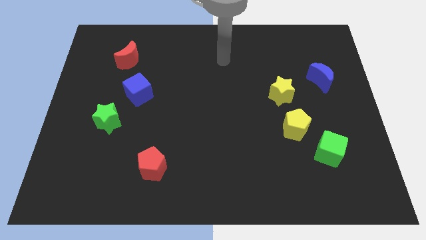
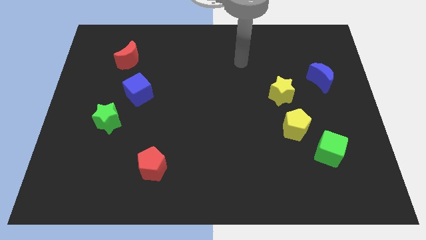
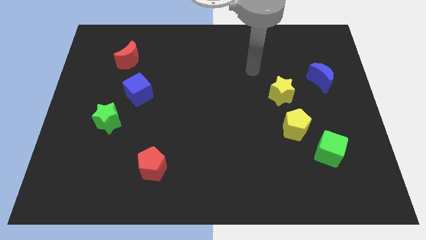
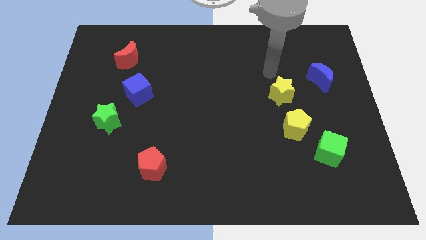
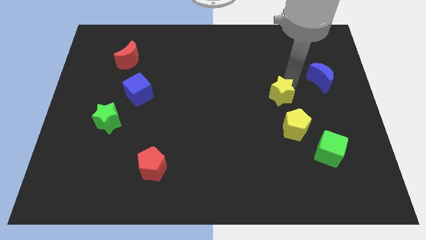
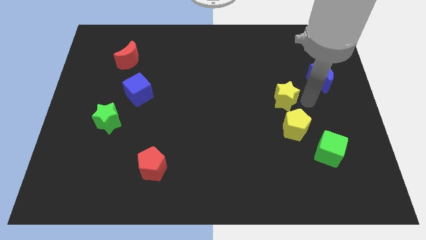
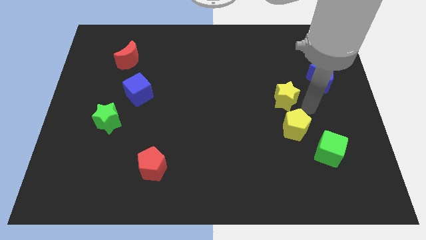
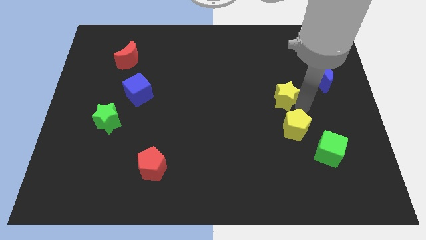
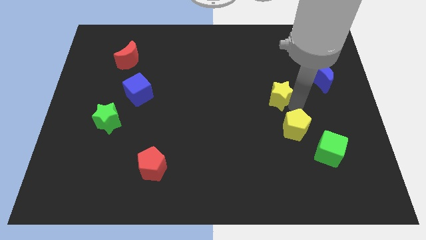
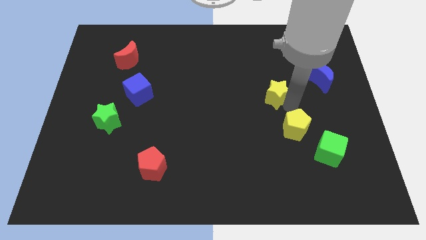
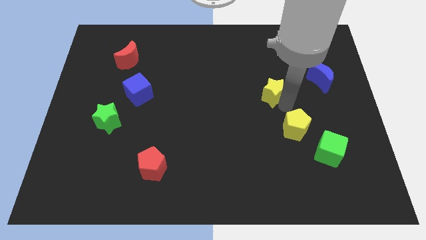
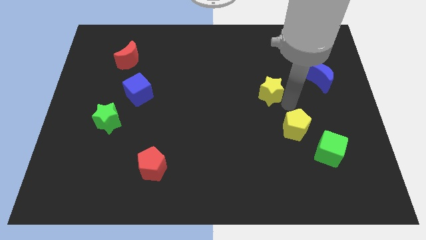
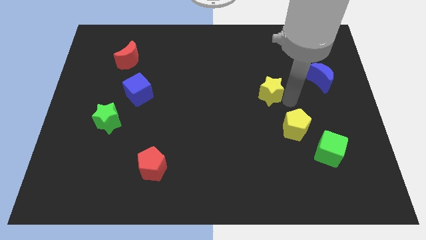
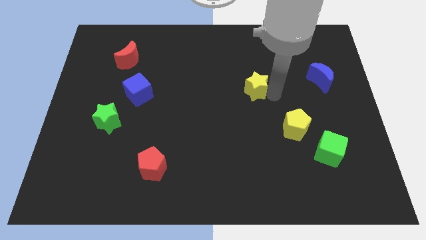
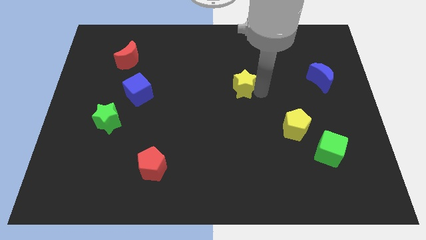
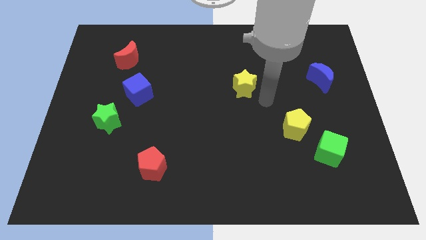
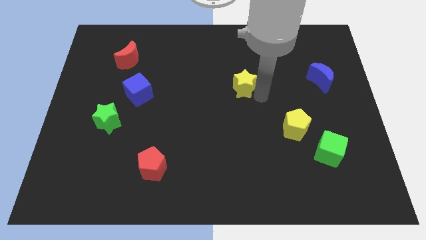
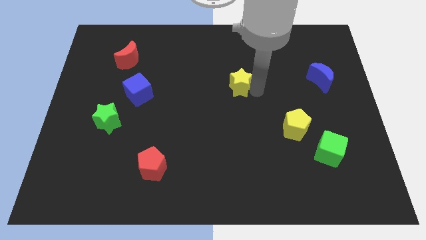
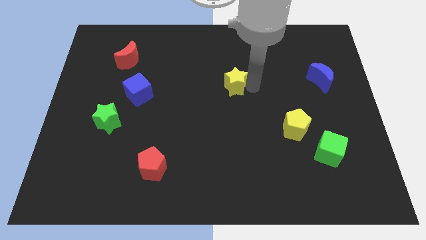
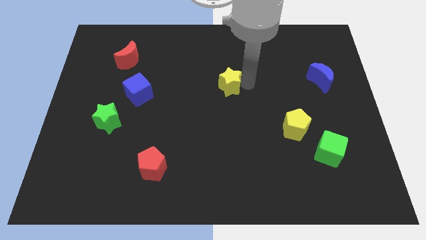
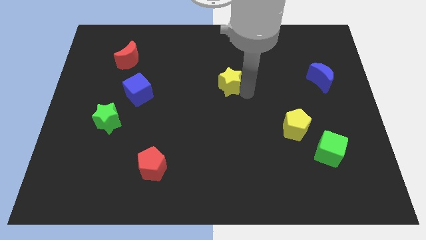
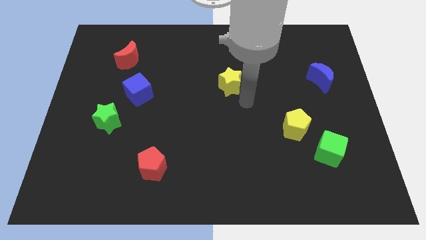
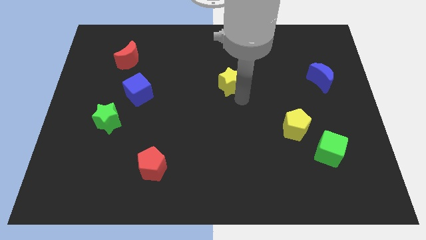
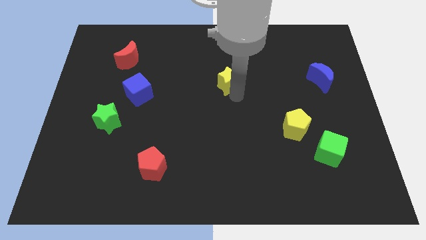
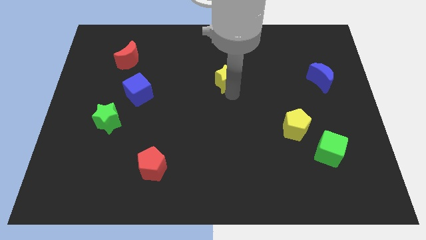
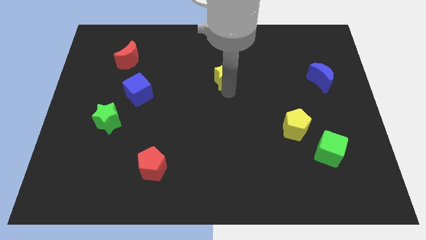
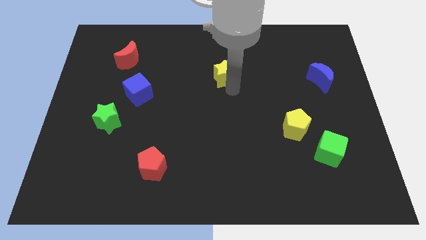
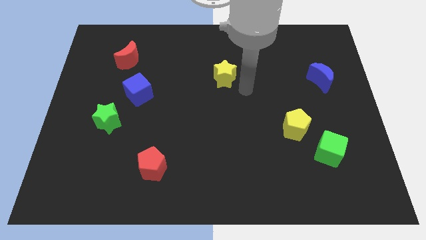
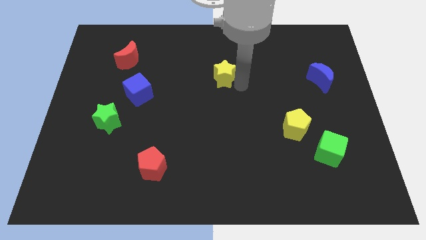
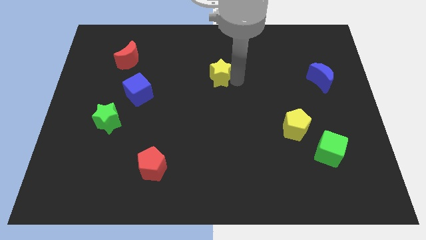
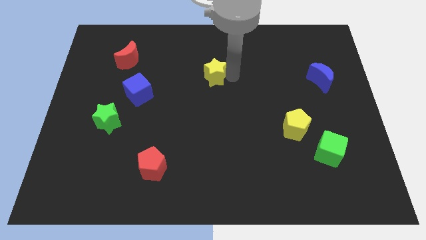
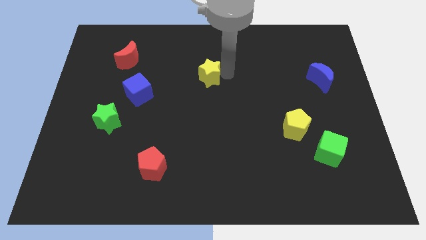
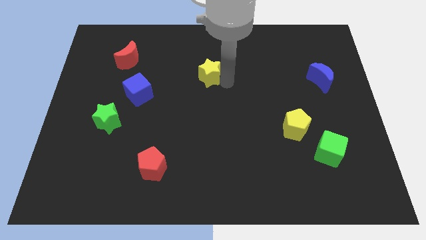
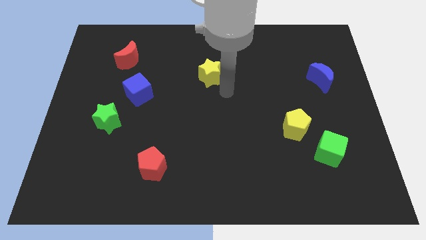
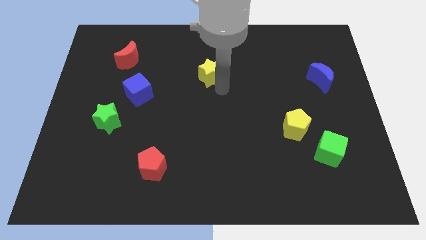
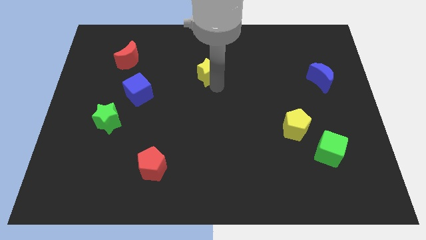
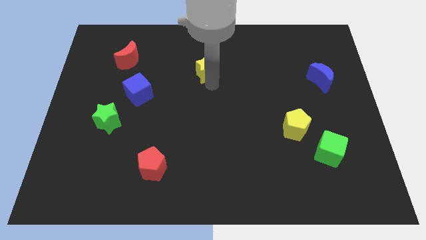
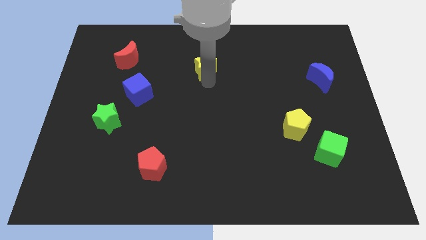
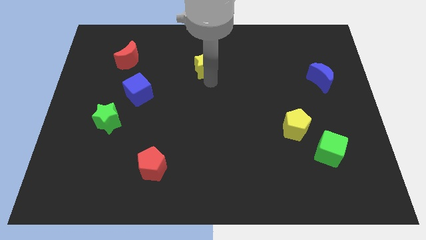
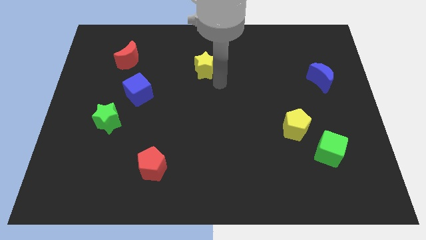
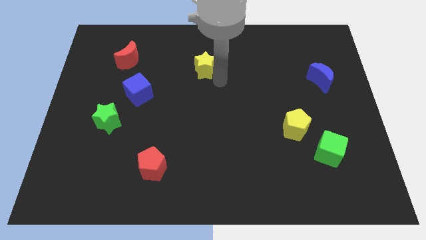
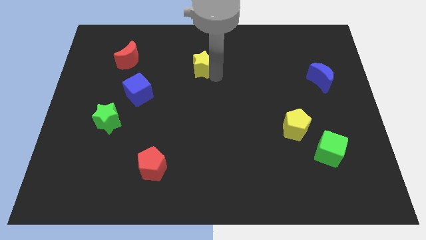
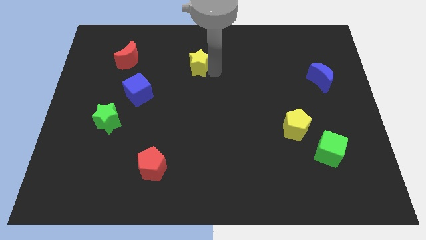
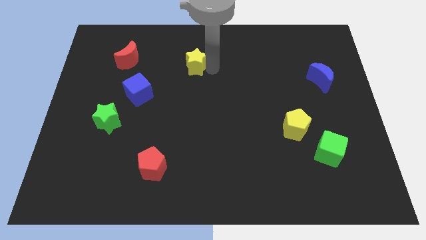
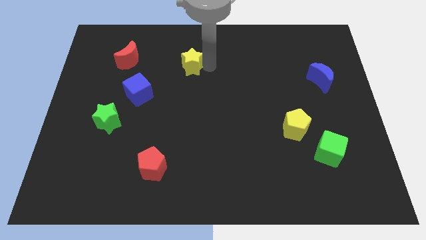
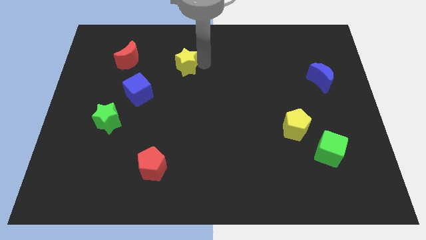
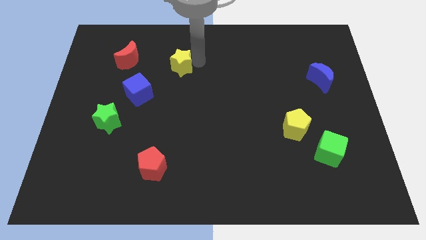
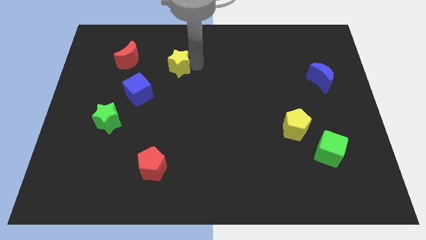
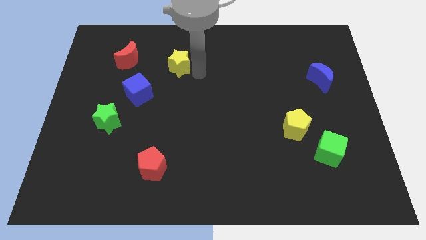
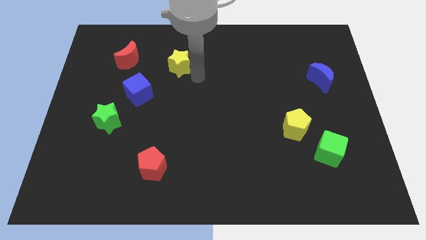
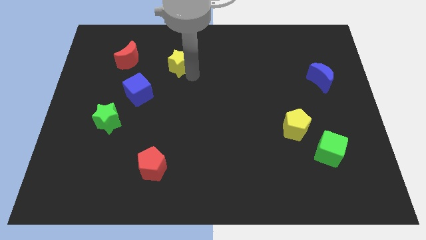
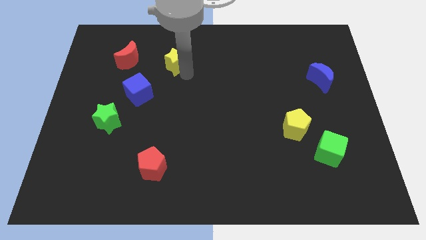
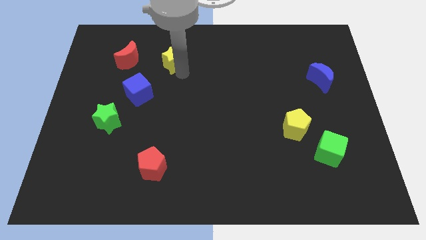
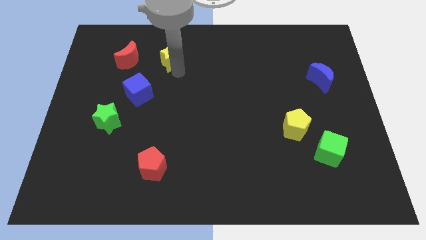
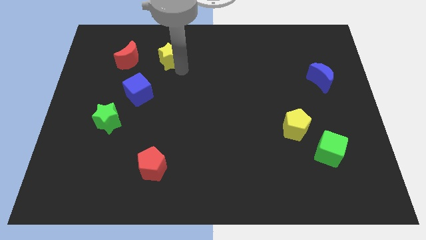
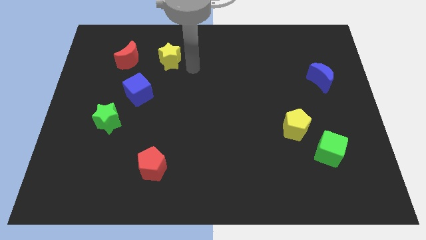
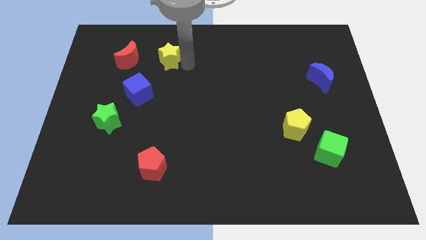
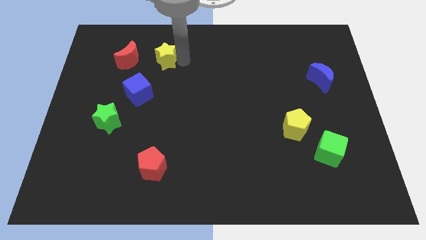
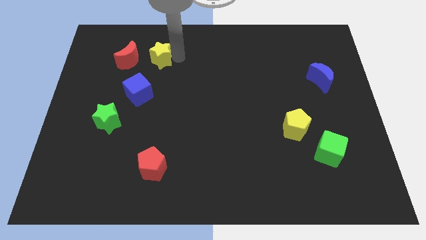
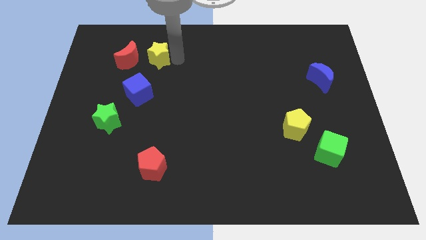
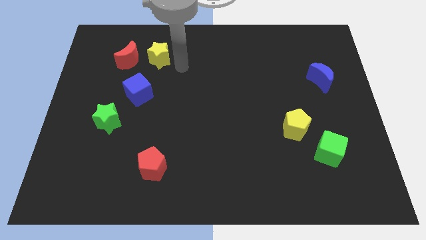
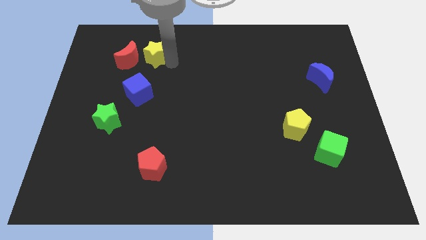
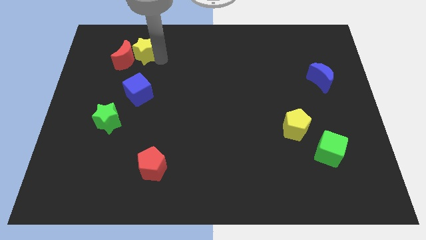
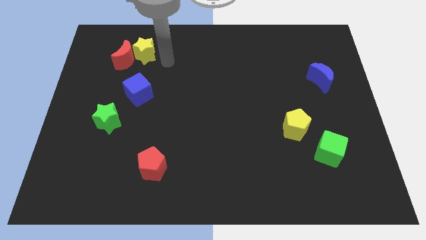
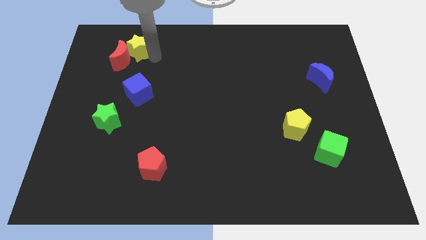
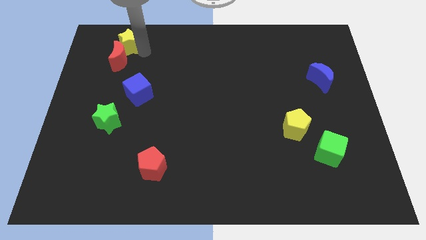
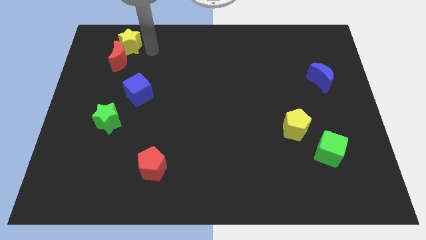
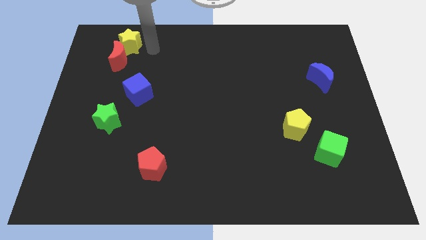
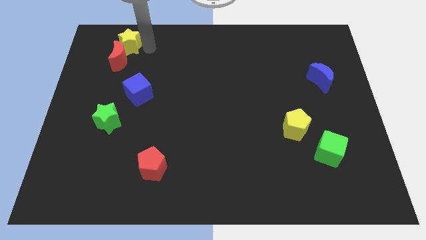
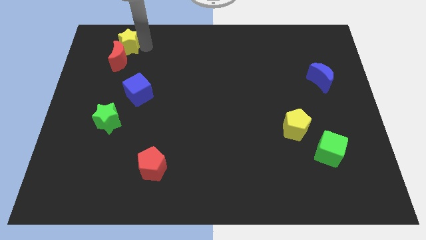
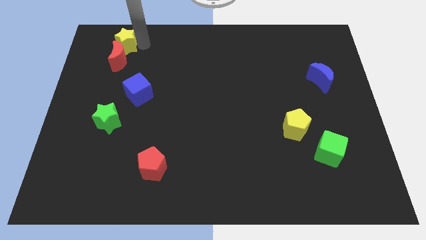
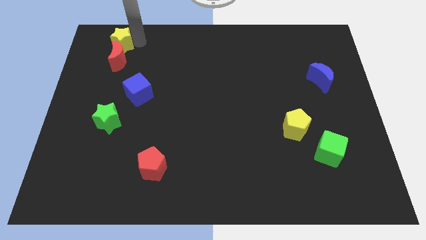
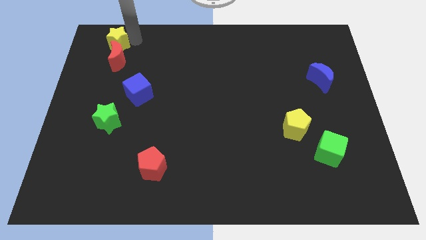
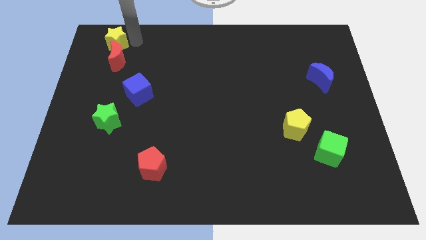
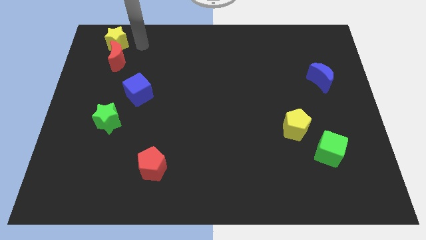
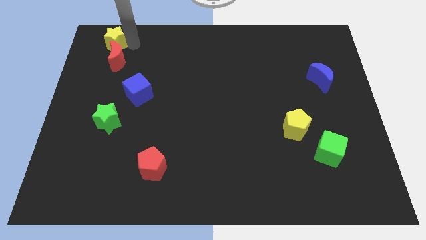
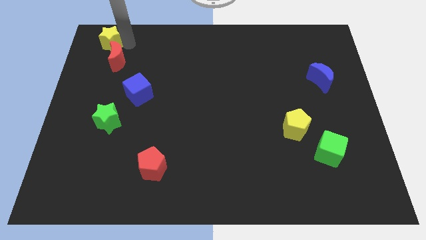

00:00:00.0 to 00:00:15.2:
move the yellow star to the upper left corner
